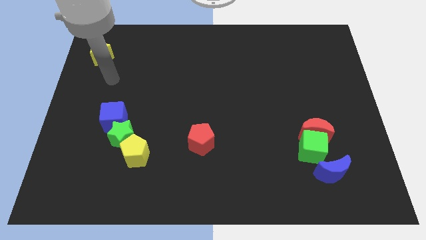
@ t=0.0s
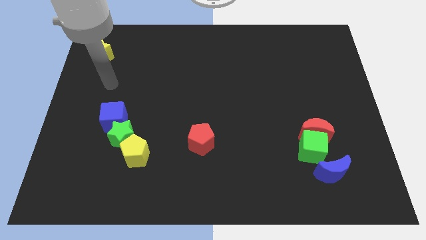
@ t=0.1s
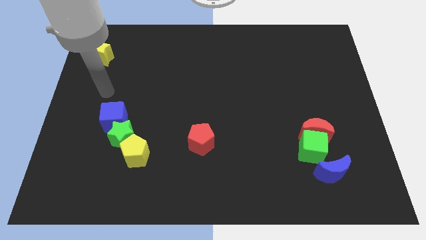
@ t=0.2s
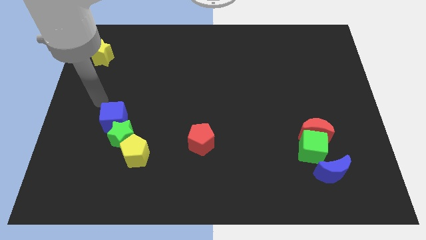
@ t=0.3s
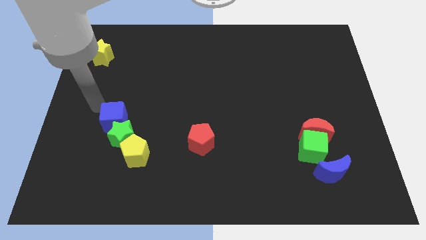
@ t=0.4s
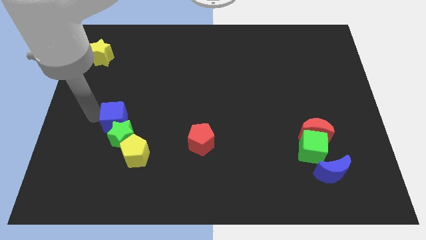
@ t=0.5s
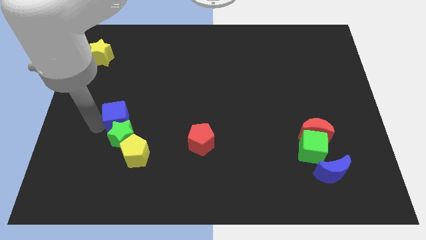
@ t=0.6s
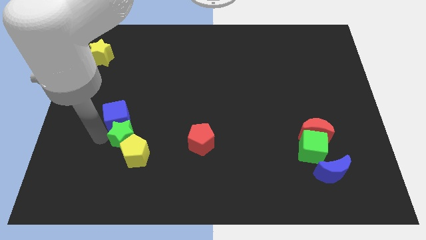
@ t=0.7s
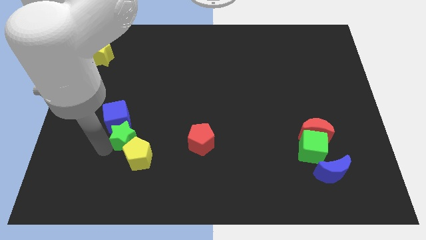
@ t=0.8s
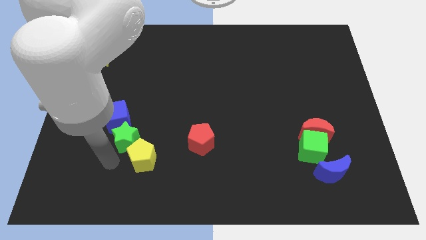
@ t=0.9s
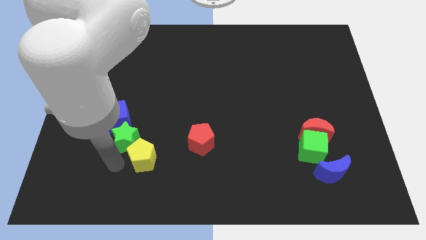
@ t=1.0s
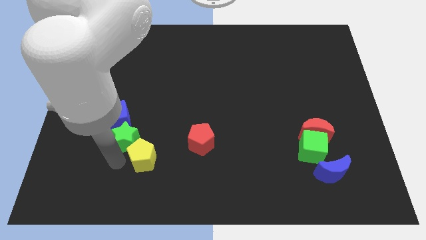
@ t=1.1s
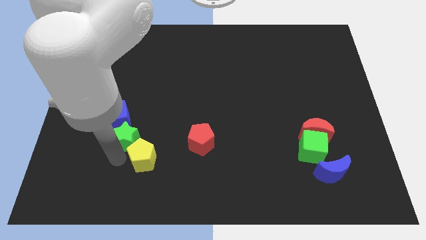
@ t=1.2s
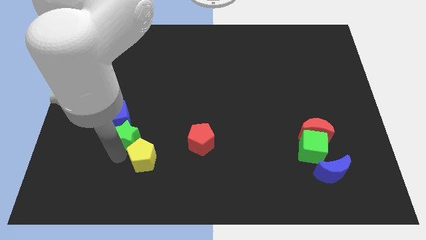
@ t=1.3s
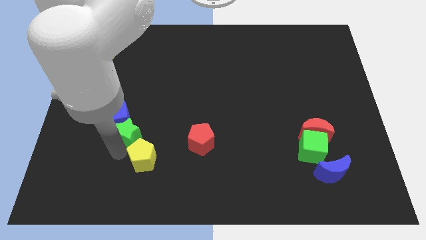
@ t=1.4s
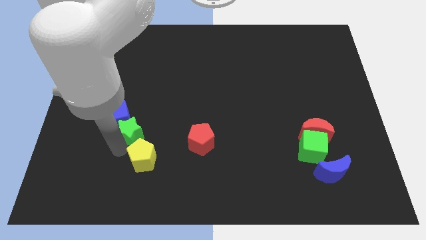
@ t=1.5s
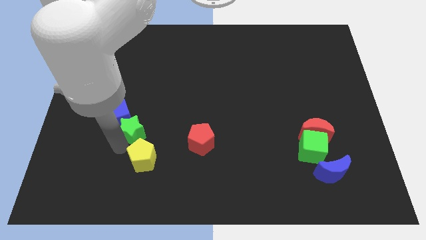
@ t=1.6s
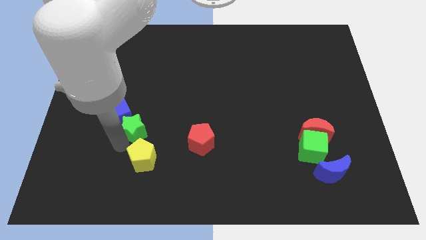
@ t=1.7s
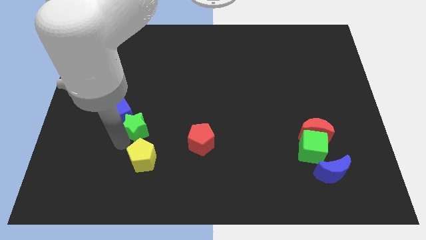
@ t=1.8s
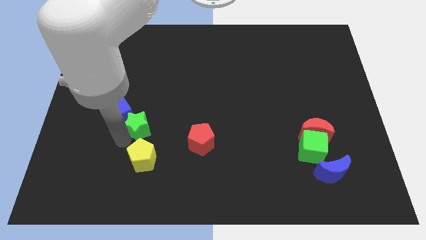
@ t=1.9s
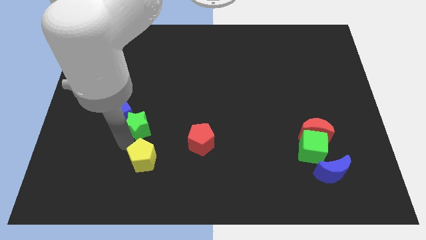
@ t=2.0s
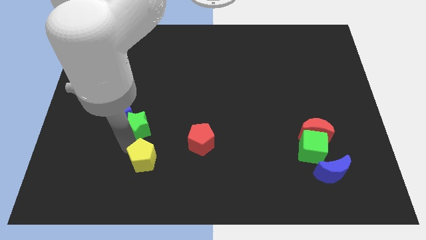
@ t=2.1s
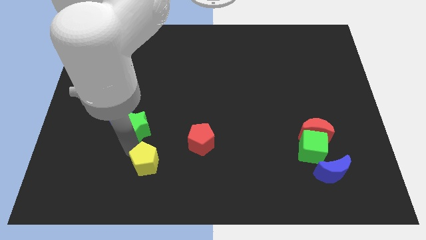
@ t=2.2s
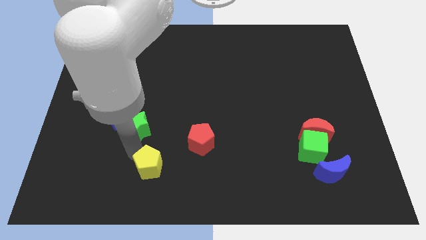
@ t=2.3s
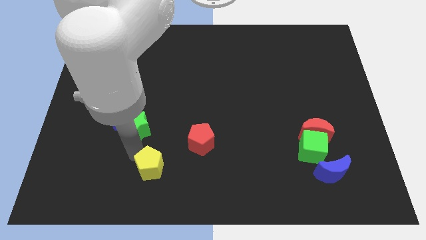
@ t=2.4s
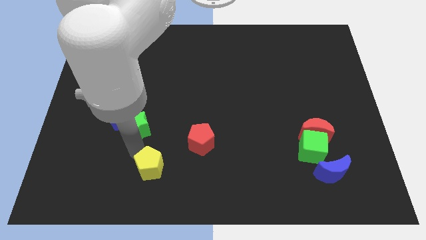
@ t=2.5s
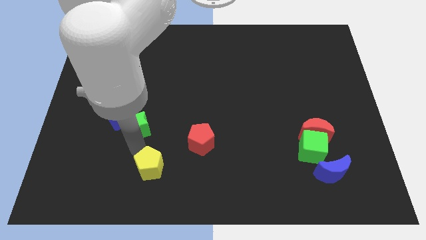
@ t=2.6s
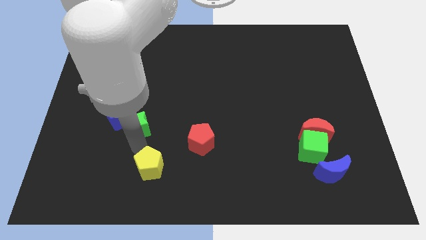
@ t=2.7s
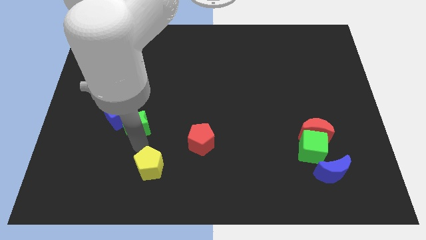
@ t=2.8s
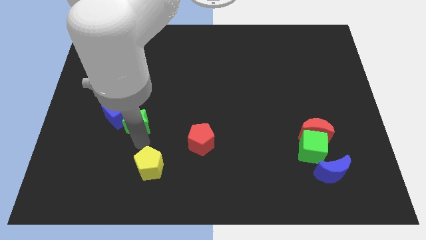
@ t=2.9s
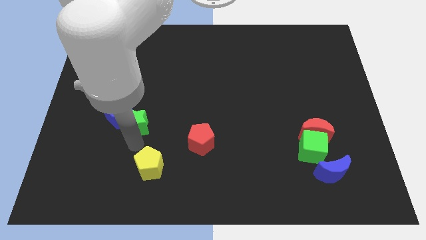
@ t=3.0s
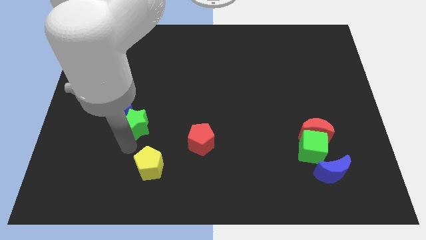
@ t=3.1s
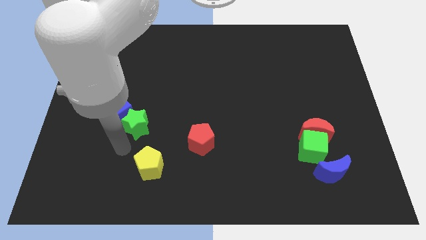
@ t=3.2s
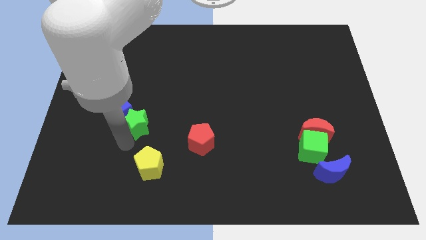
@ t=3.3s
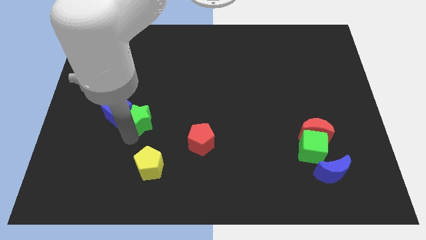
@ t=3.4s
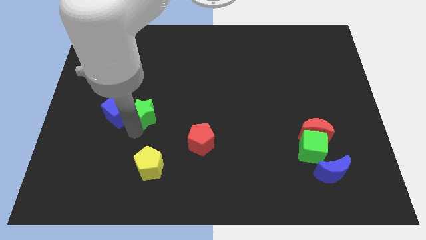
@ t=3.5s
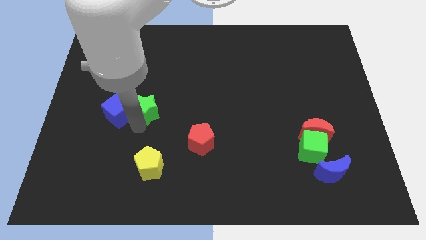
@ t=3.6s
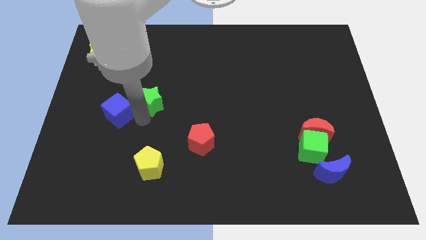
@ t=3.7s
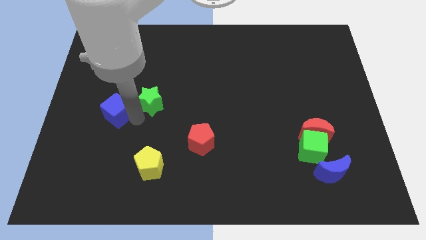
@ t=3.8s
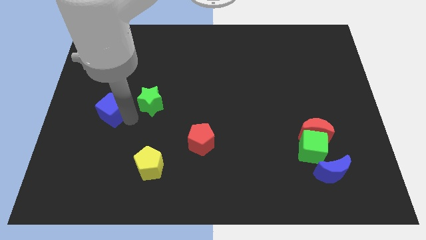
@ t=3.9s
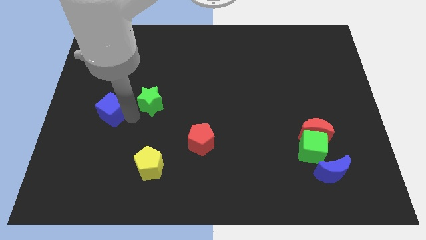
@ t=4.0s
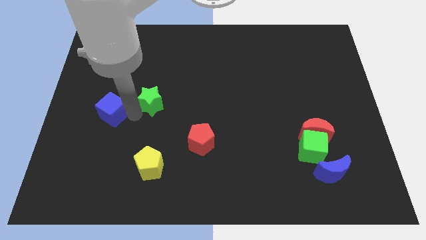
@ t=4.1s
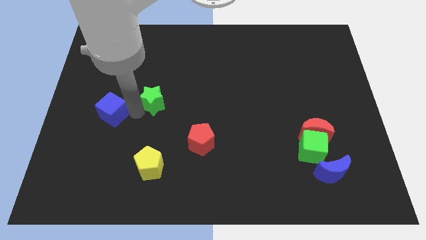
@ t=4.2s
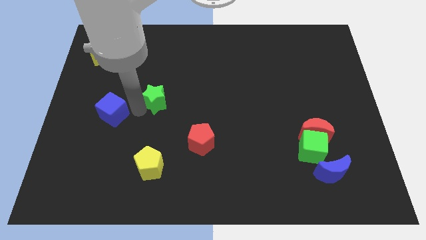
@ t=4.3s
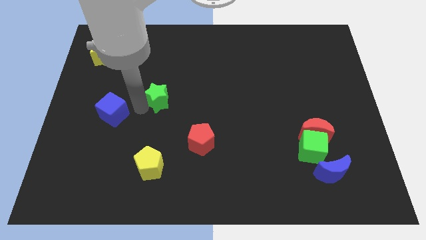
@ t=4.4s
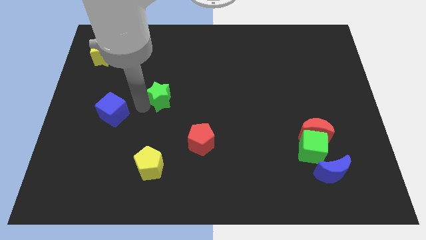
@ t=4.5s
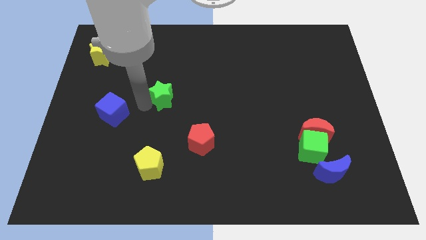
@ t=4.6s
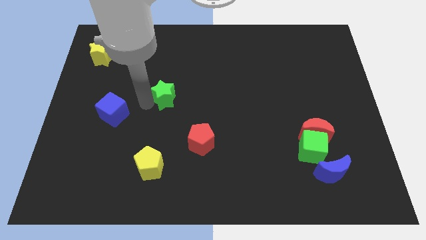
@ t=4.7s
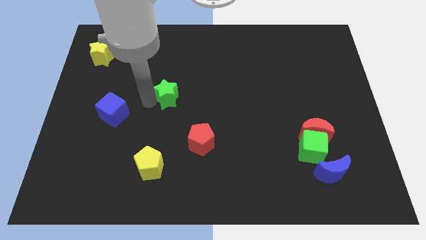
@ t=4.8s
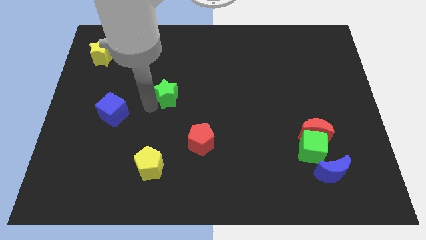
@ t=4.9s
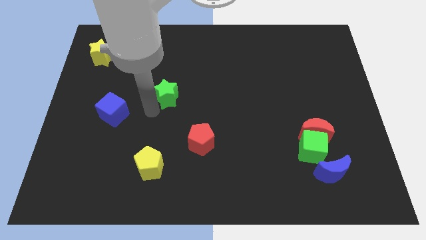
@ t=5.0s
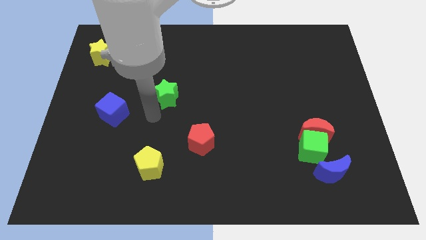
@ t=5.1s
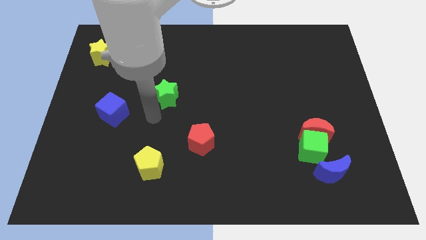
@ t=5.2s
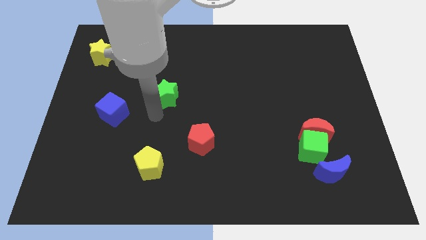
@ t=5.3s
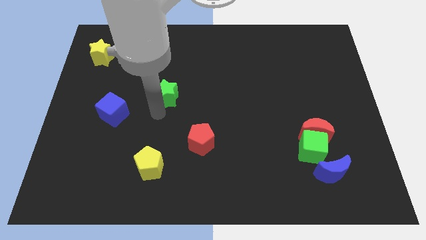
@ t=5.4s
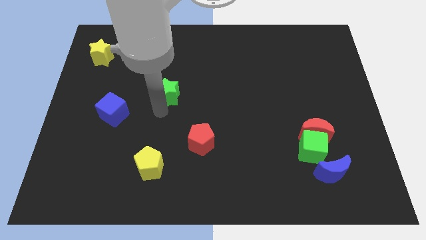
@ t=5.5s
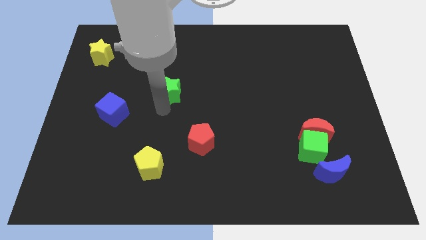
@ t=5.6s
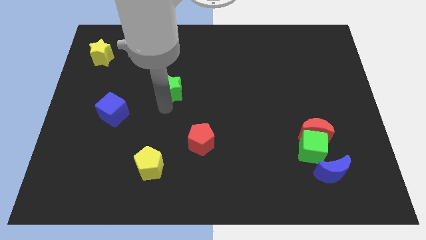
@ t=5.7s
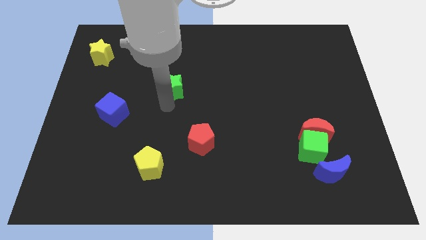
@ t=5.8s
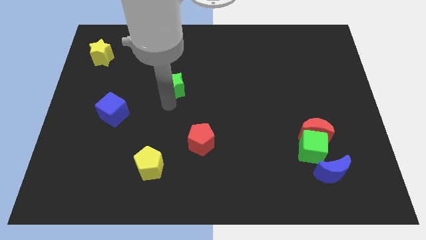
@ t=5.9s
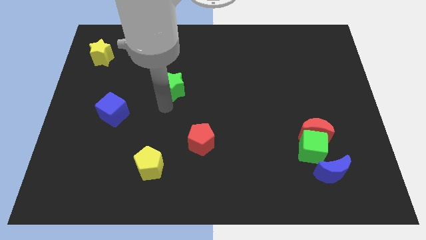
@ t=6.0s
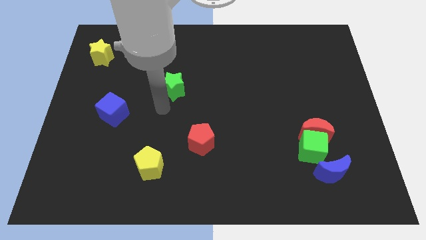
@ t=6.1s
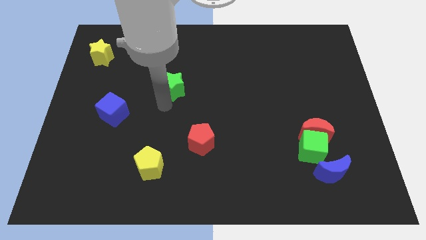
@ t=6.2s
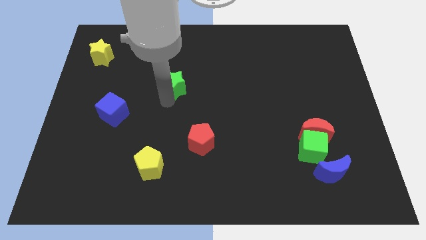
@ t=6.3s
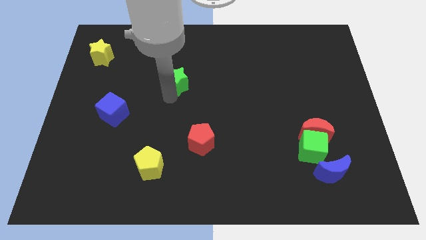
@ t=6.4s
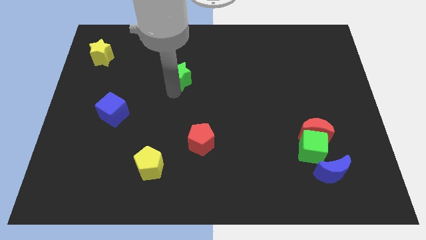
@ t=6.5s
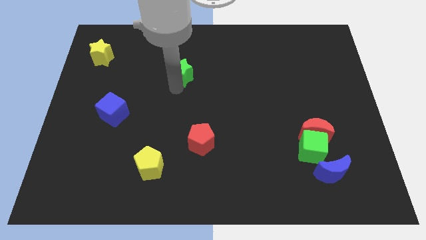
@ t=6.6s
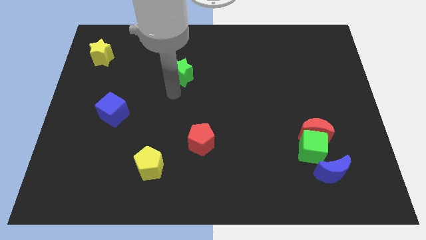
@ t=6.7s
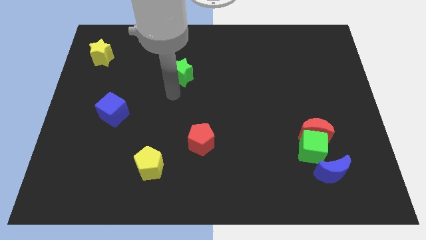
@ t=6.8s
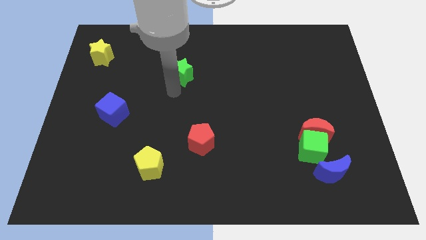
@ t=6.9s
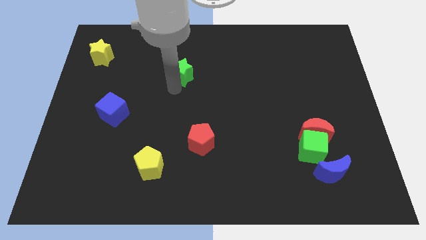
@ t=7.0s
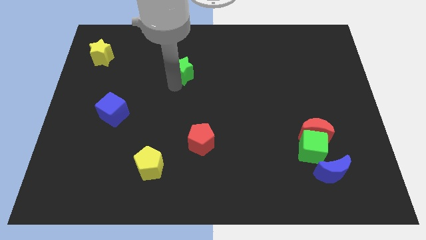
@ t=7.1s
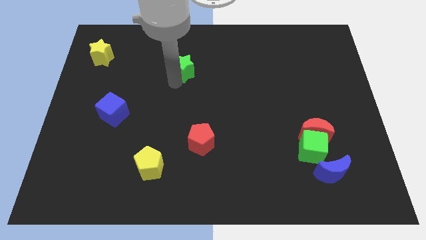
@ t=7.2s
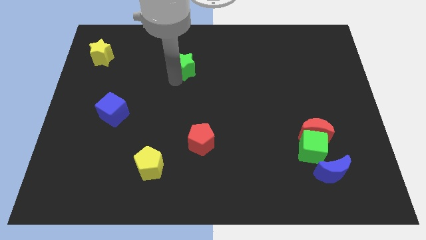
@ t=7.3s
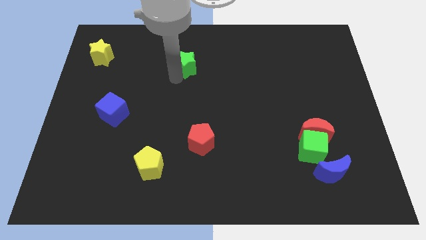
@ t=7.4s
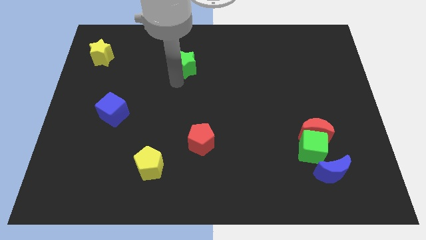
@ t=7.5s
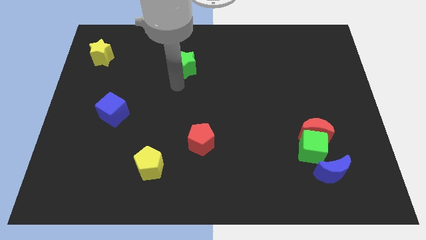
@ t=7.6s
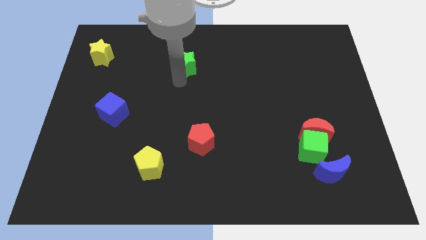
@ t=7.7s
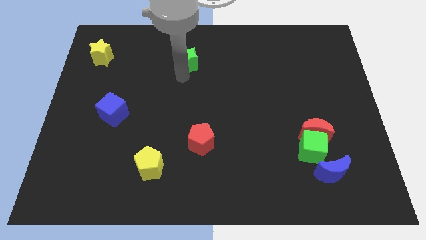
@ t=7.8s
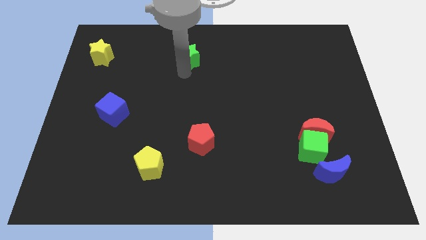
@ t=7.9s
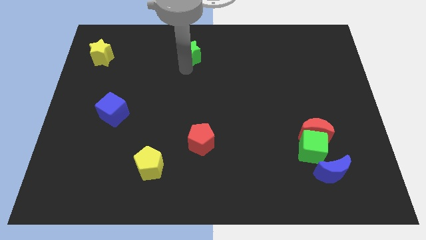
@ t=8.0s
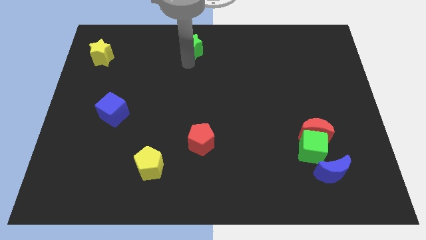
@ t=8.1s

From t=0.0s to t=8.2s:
move the green star to the top
